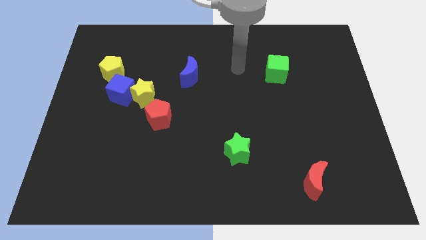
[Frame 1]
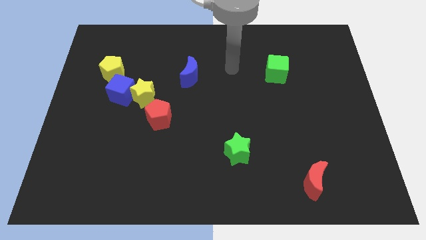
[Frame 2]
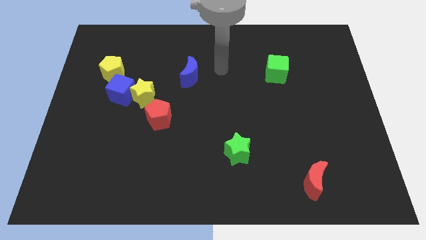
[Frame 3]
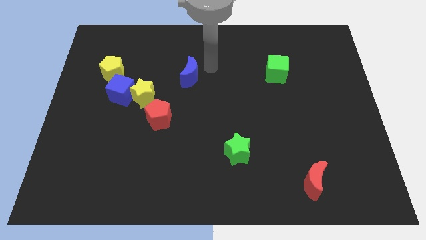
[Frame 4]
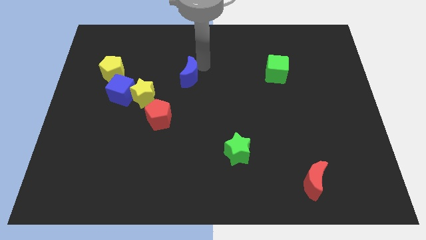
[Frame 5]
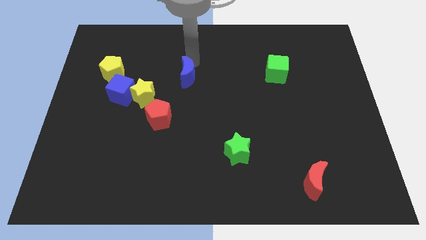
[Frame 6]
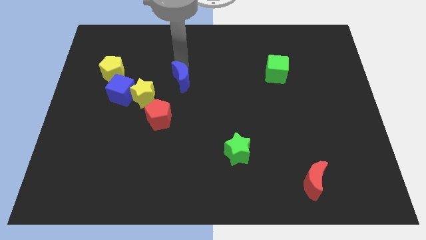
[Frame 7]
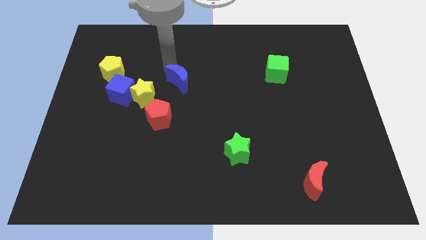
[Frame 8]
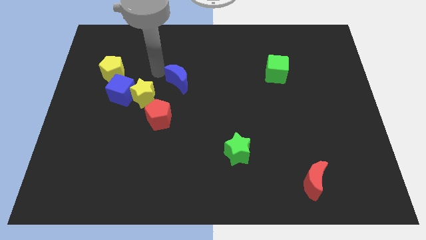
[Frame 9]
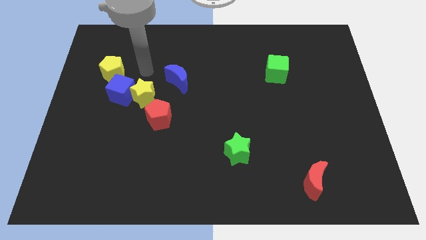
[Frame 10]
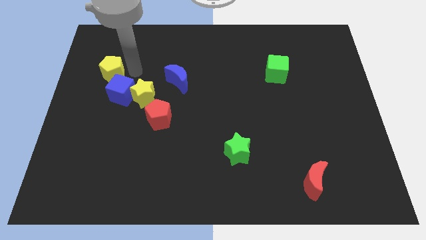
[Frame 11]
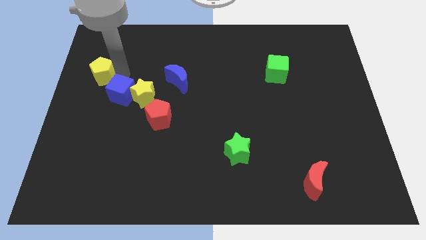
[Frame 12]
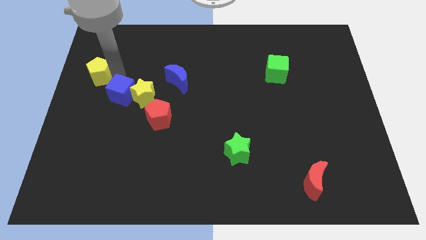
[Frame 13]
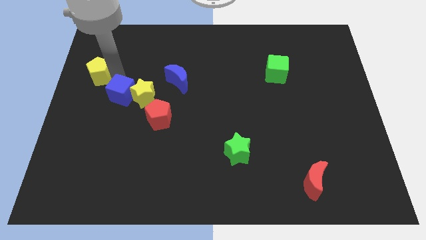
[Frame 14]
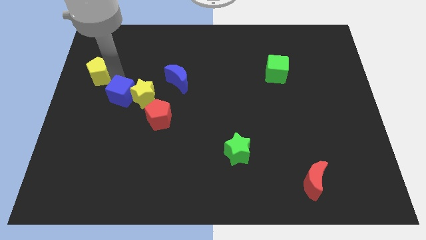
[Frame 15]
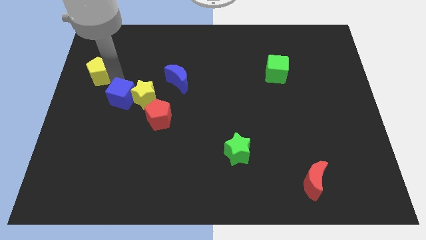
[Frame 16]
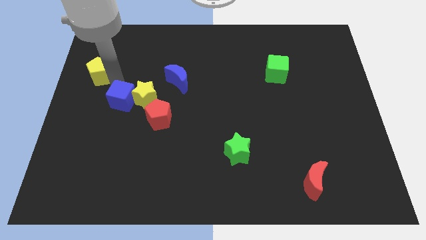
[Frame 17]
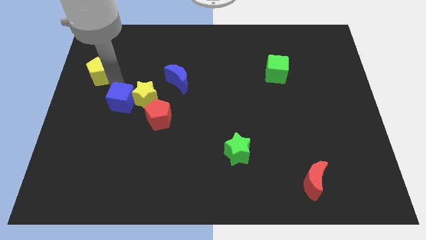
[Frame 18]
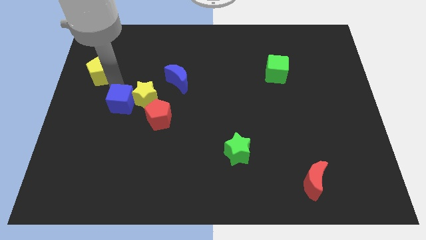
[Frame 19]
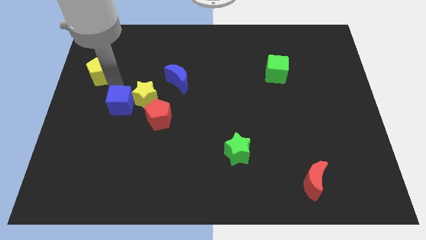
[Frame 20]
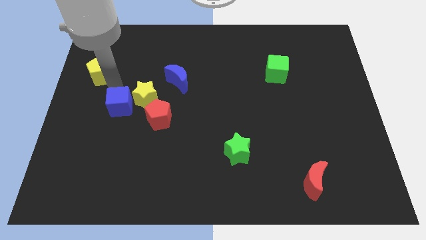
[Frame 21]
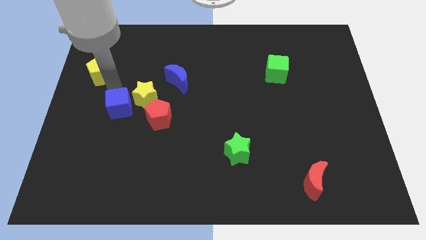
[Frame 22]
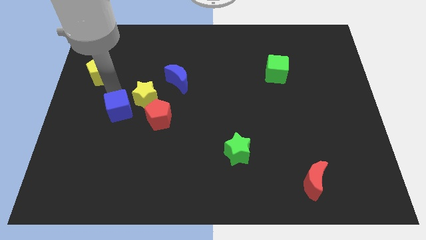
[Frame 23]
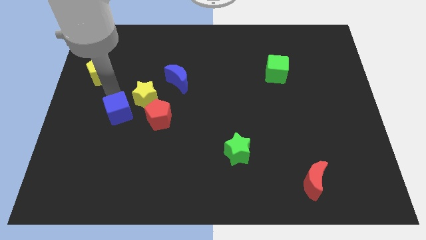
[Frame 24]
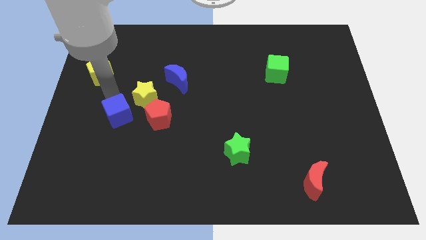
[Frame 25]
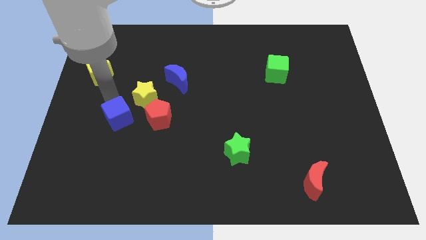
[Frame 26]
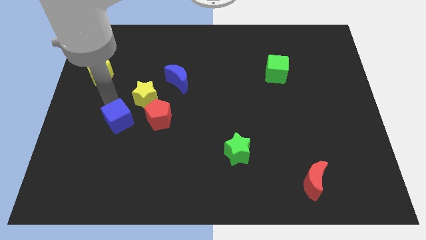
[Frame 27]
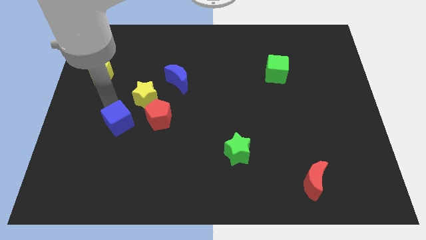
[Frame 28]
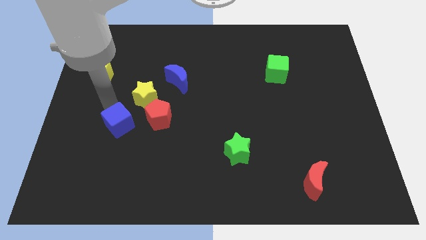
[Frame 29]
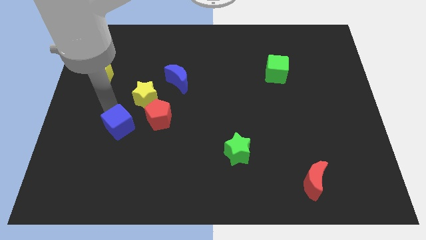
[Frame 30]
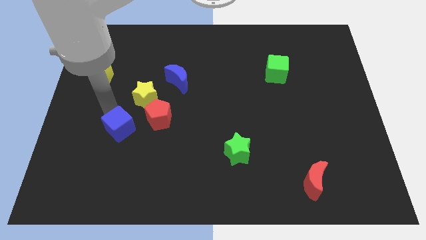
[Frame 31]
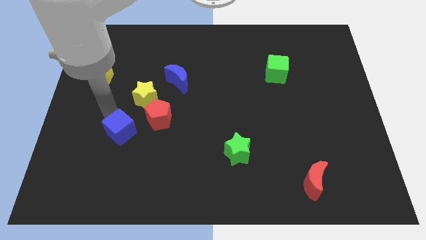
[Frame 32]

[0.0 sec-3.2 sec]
slide the blue cube down and then right a little bit

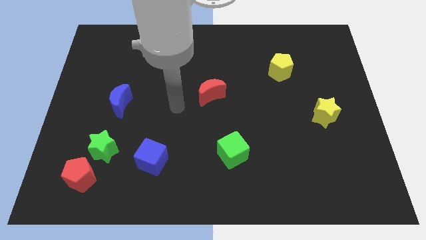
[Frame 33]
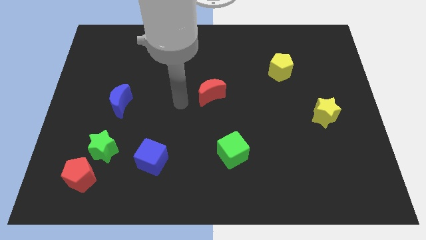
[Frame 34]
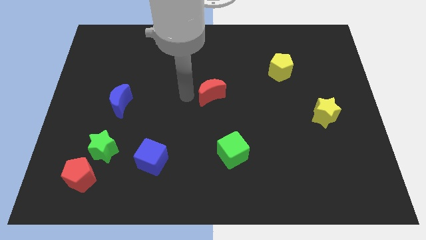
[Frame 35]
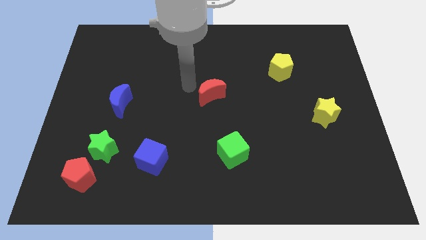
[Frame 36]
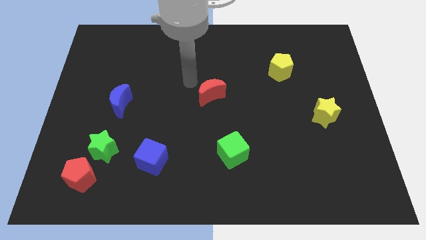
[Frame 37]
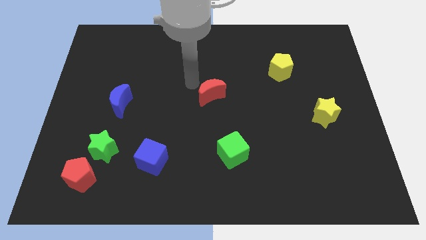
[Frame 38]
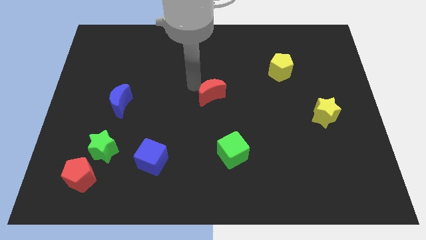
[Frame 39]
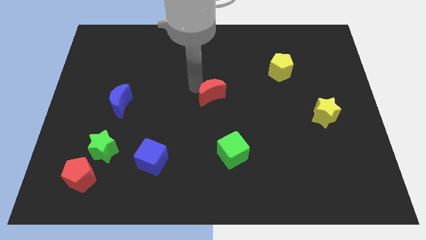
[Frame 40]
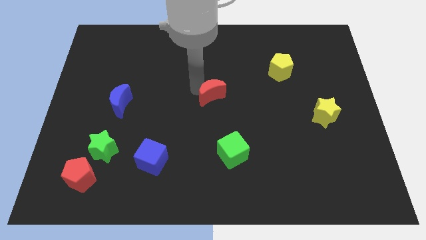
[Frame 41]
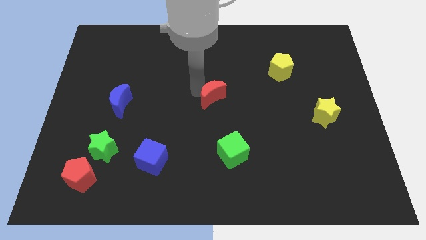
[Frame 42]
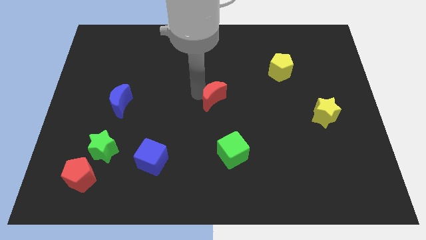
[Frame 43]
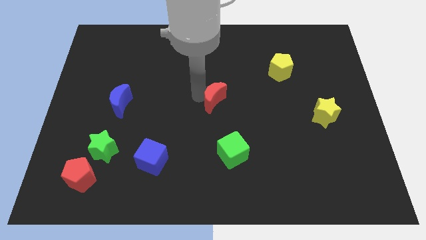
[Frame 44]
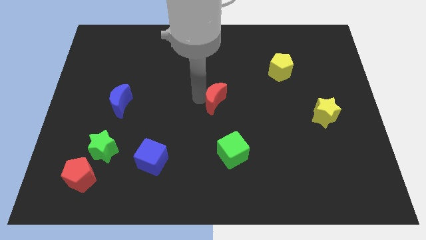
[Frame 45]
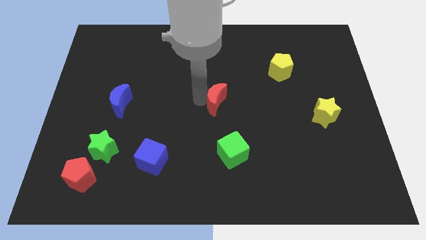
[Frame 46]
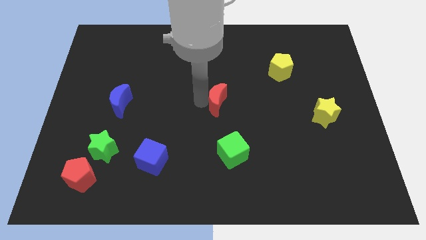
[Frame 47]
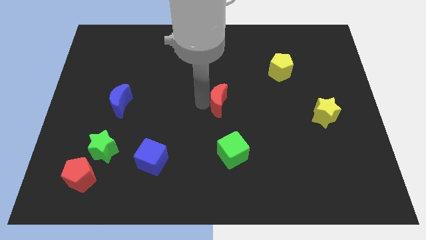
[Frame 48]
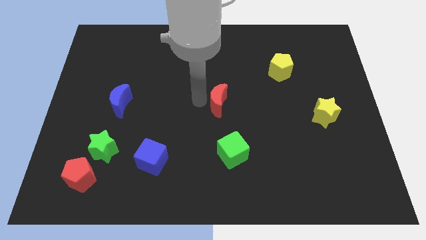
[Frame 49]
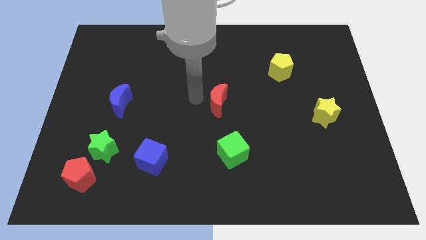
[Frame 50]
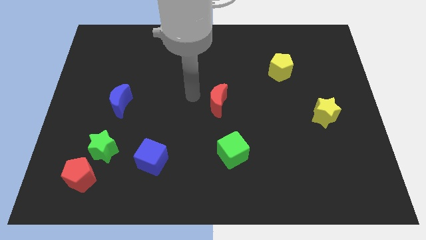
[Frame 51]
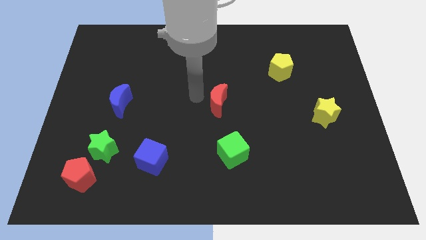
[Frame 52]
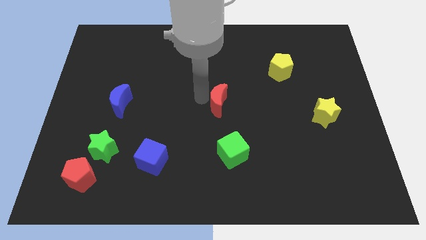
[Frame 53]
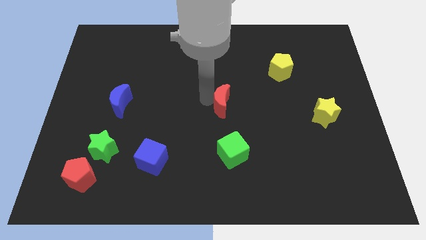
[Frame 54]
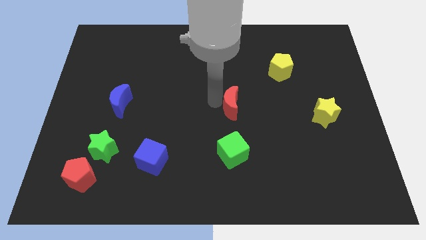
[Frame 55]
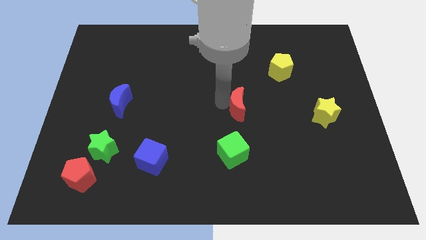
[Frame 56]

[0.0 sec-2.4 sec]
push the red moon somewhat down and then right

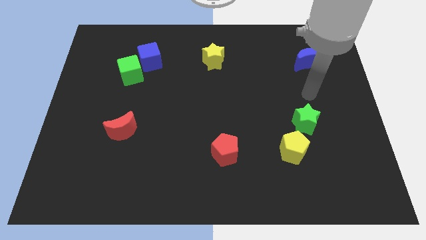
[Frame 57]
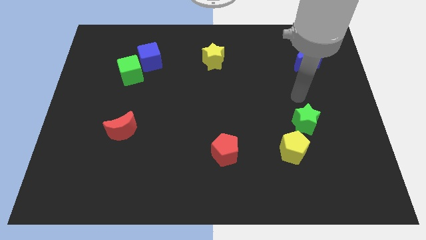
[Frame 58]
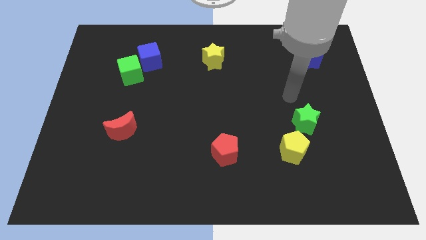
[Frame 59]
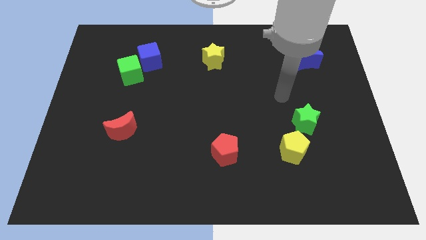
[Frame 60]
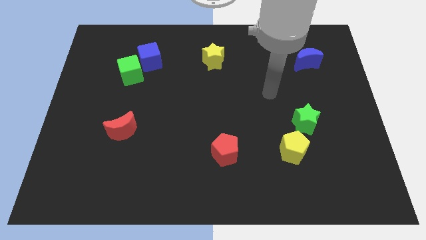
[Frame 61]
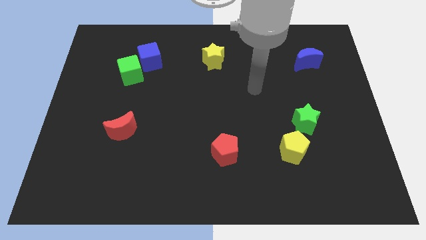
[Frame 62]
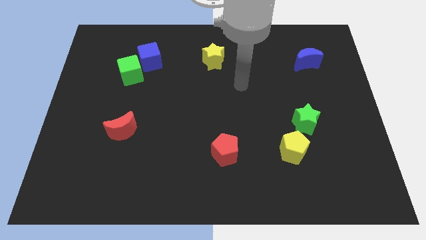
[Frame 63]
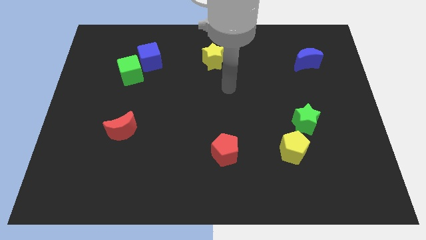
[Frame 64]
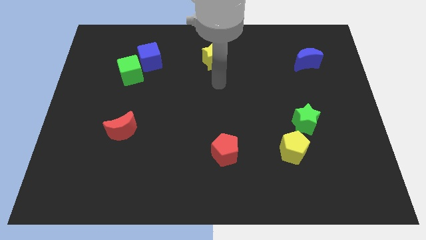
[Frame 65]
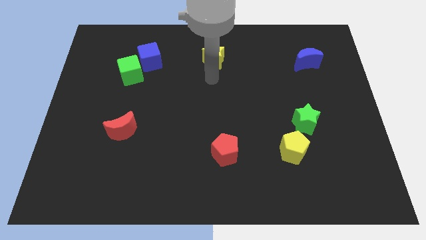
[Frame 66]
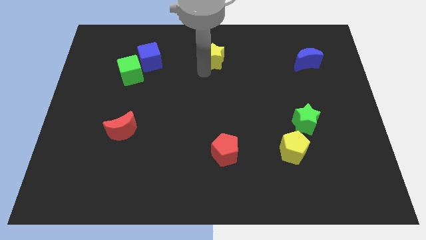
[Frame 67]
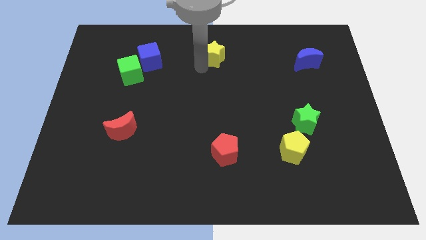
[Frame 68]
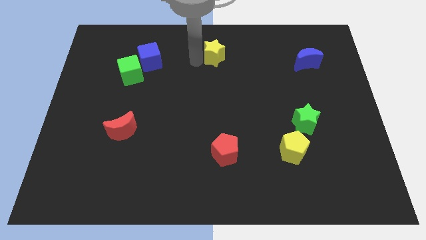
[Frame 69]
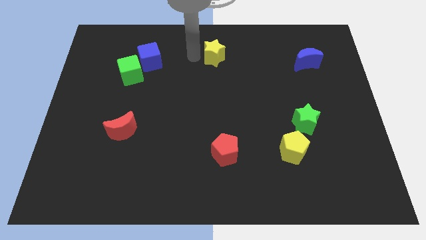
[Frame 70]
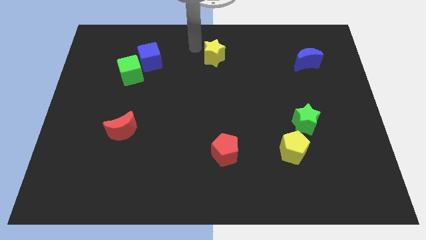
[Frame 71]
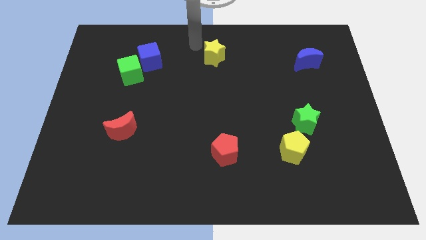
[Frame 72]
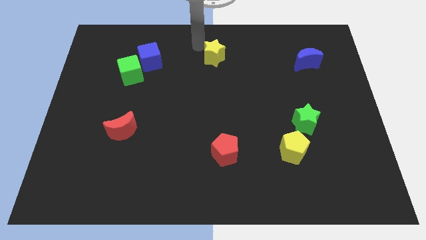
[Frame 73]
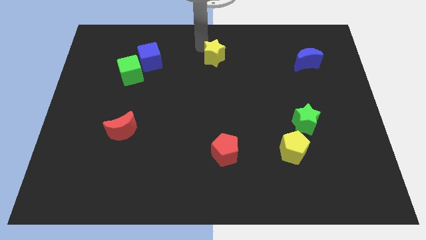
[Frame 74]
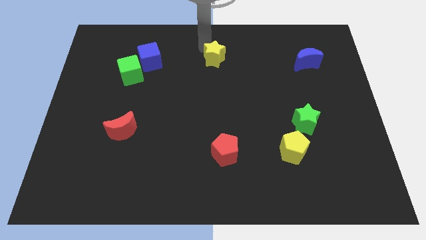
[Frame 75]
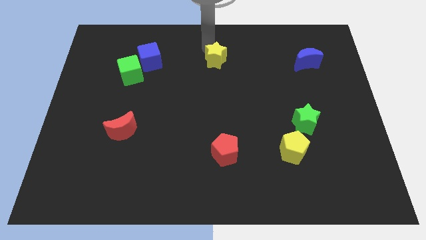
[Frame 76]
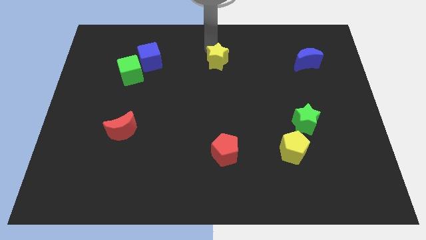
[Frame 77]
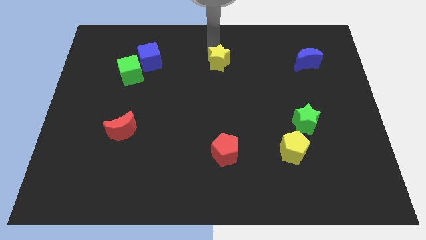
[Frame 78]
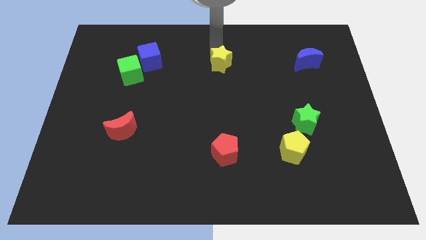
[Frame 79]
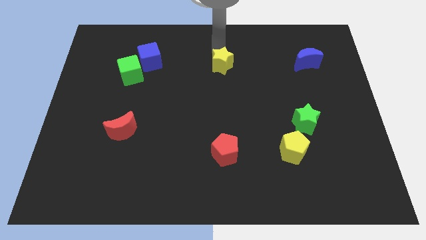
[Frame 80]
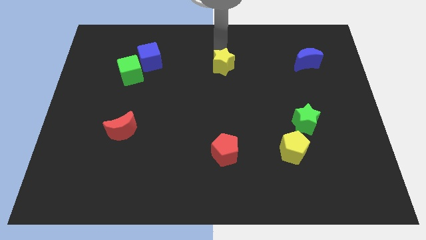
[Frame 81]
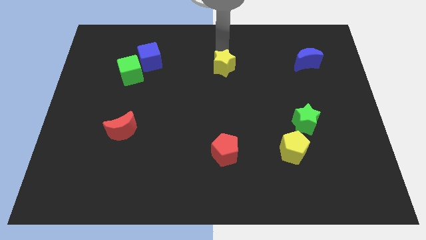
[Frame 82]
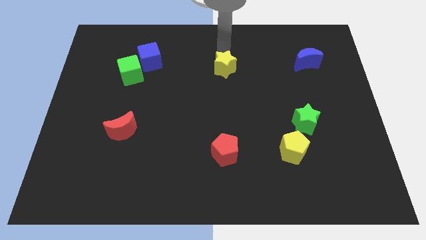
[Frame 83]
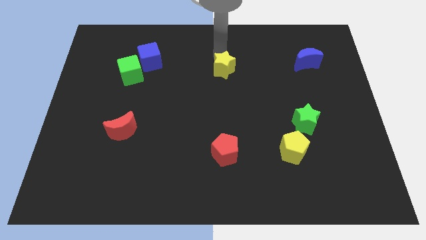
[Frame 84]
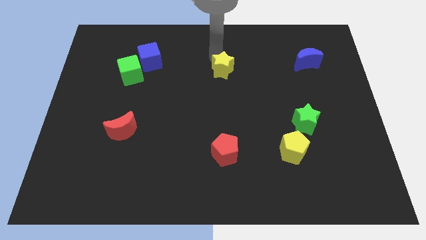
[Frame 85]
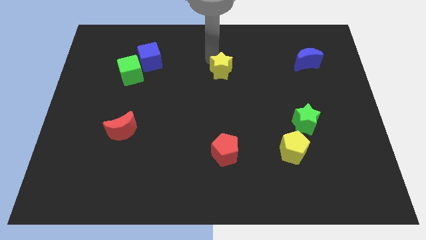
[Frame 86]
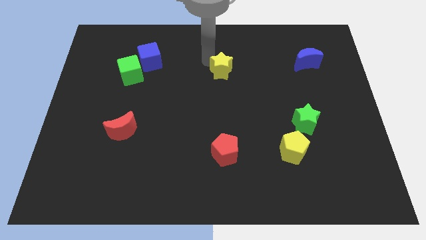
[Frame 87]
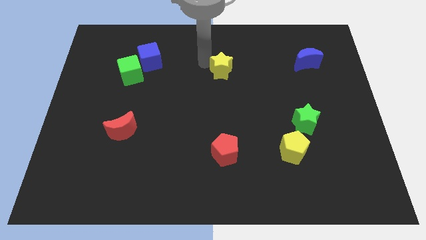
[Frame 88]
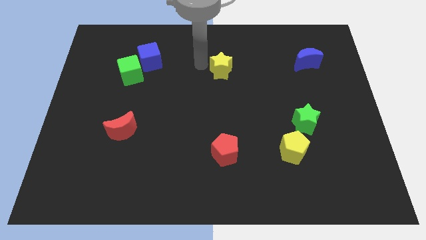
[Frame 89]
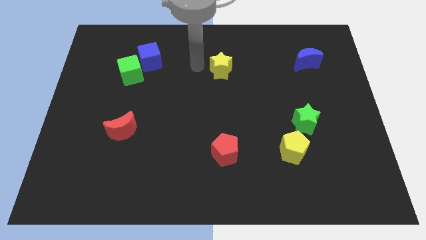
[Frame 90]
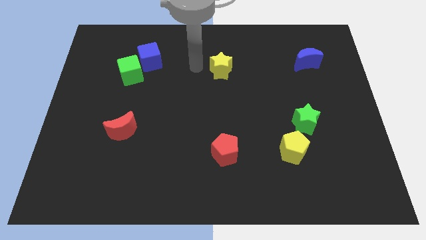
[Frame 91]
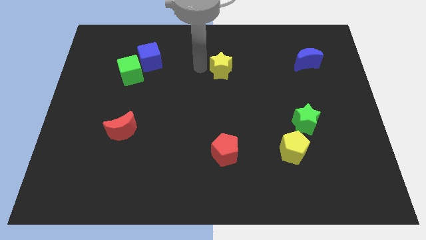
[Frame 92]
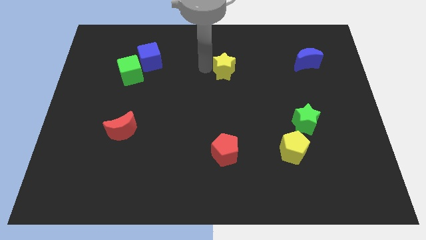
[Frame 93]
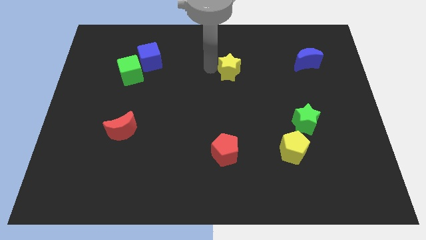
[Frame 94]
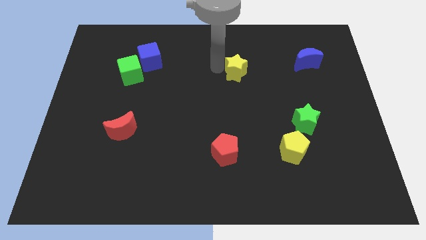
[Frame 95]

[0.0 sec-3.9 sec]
slightly move the yellow star diagonally down and right
